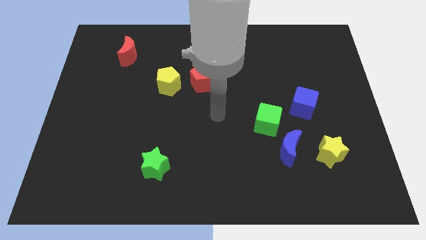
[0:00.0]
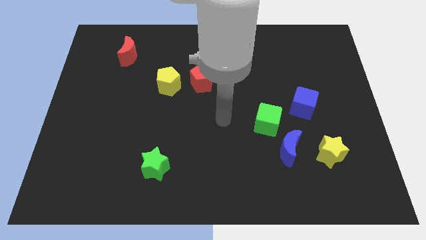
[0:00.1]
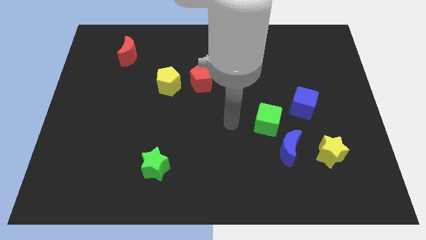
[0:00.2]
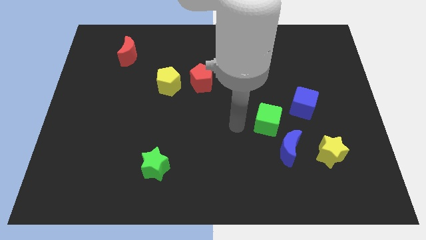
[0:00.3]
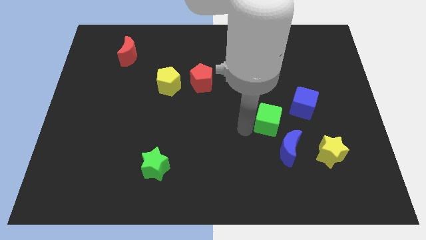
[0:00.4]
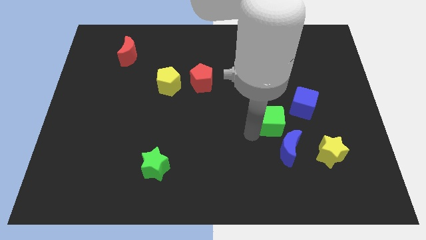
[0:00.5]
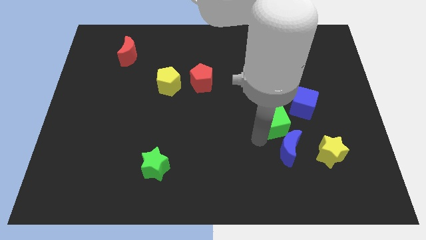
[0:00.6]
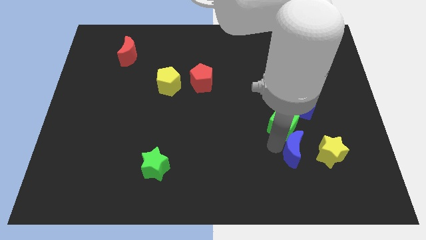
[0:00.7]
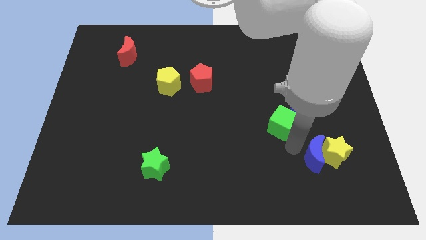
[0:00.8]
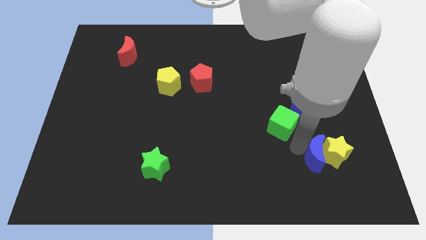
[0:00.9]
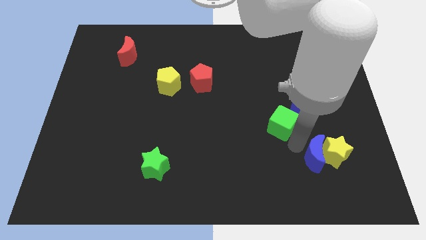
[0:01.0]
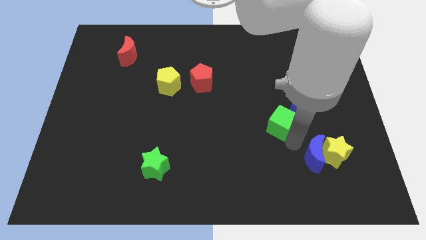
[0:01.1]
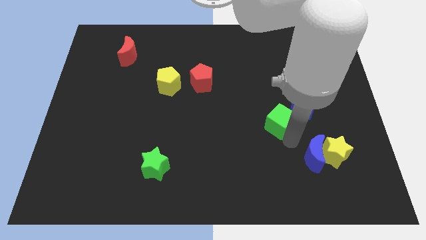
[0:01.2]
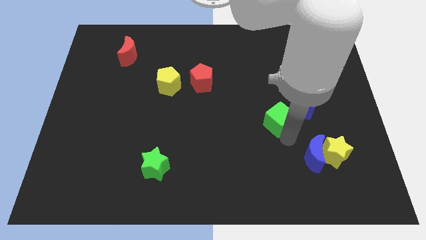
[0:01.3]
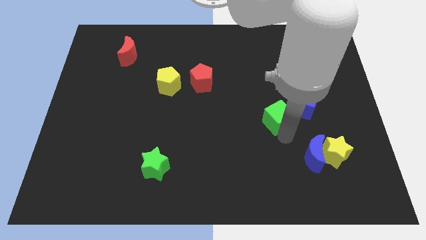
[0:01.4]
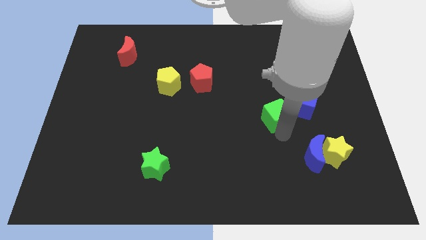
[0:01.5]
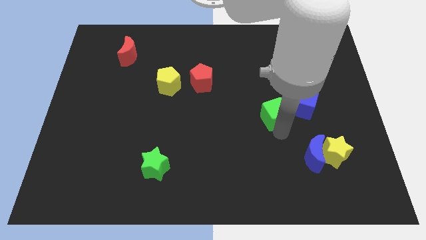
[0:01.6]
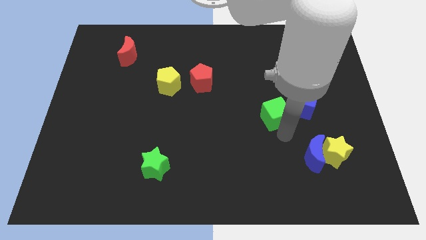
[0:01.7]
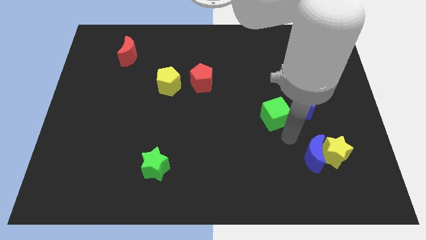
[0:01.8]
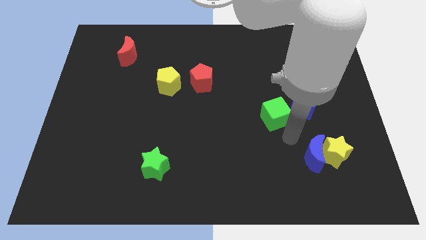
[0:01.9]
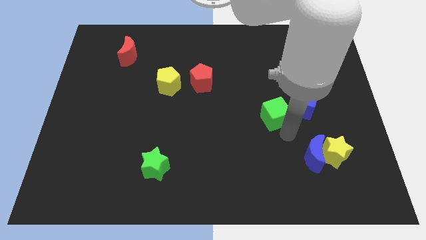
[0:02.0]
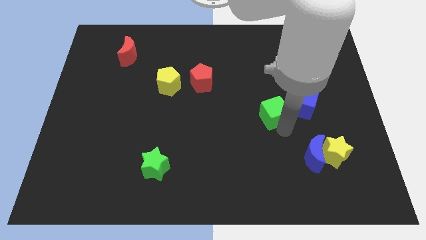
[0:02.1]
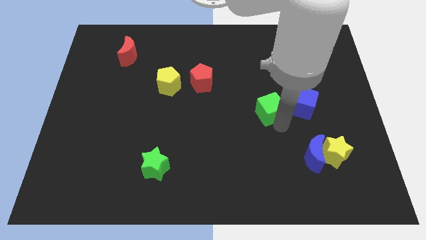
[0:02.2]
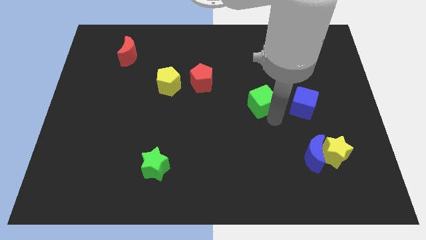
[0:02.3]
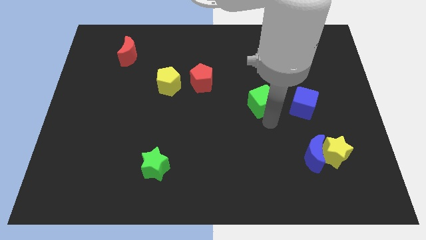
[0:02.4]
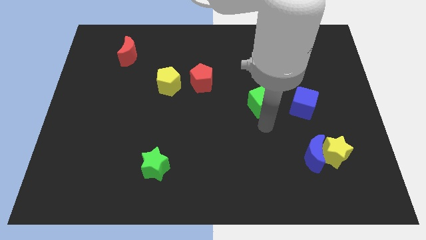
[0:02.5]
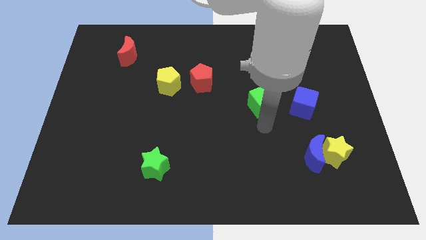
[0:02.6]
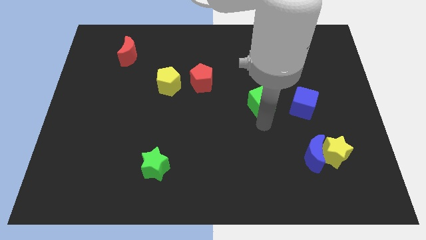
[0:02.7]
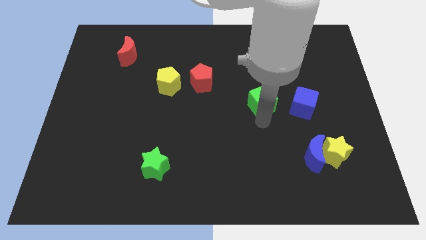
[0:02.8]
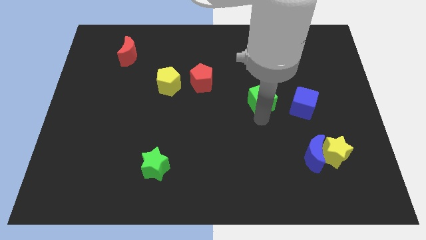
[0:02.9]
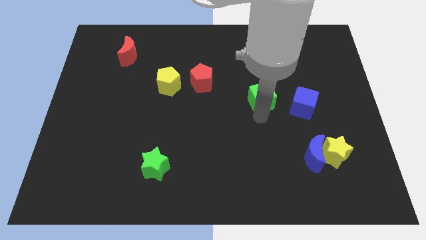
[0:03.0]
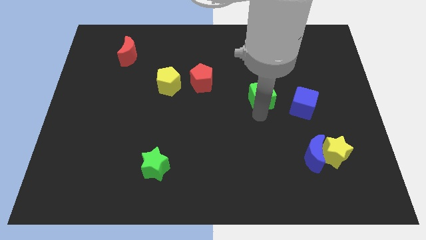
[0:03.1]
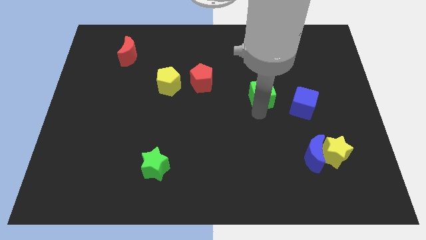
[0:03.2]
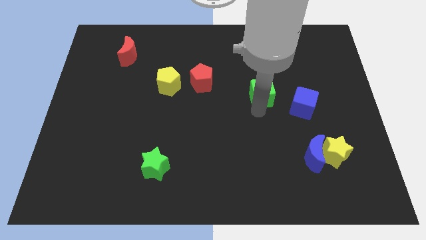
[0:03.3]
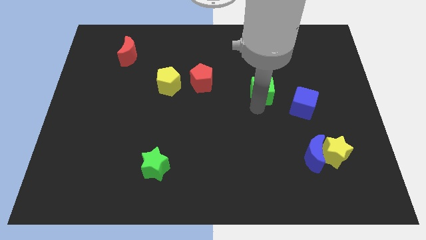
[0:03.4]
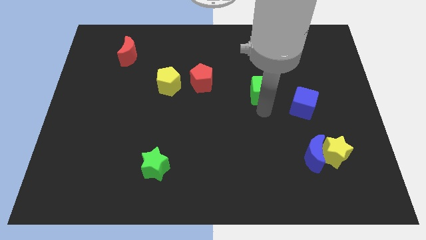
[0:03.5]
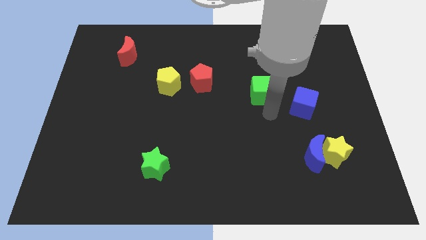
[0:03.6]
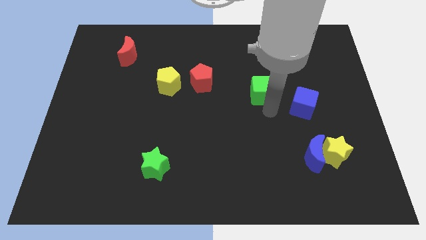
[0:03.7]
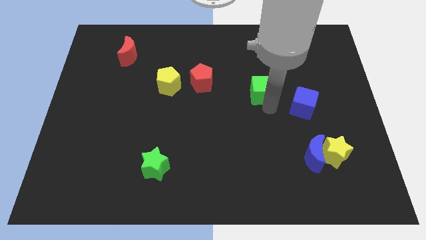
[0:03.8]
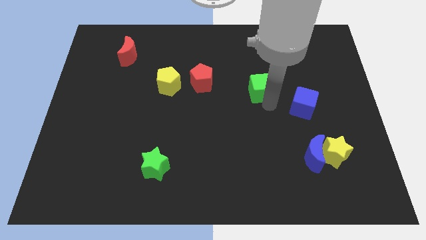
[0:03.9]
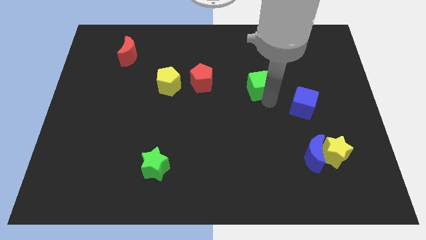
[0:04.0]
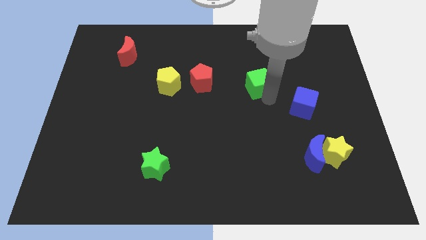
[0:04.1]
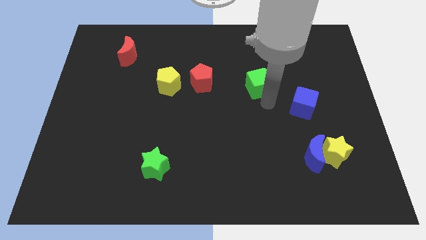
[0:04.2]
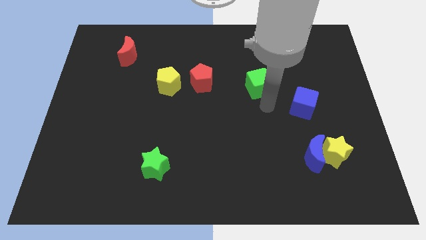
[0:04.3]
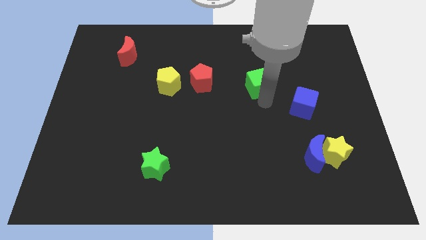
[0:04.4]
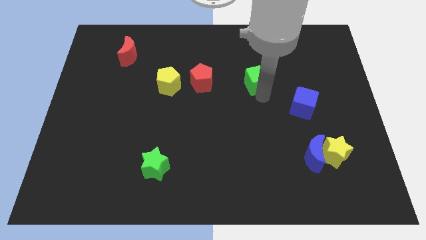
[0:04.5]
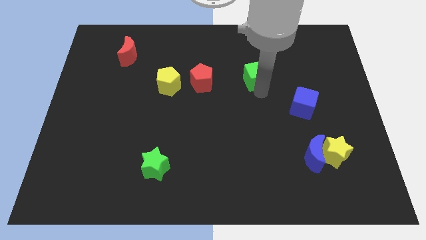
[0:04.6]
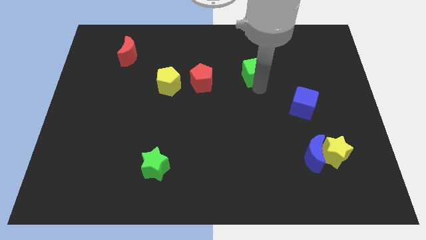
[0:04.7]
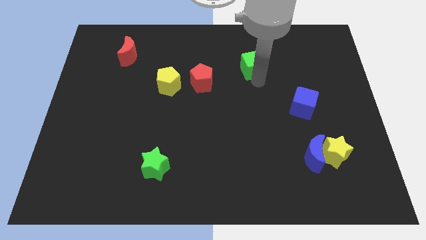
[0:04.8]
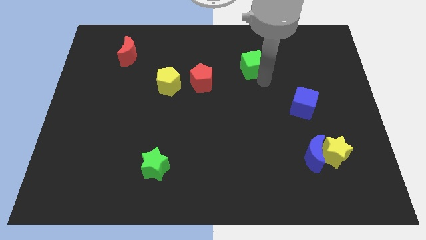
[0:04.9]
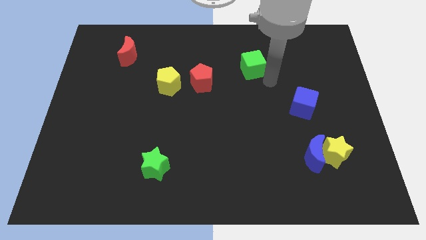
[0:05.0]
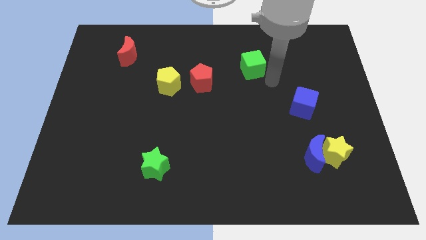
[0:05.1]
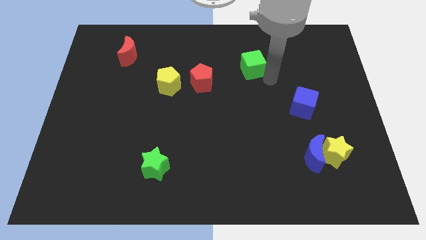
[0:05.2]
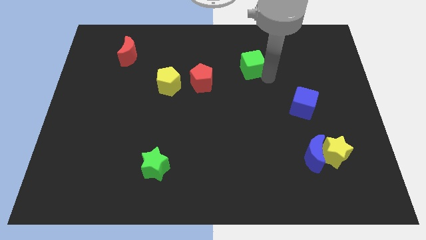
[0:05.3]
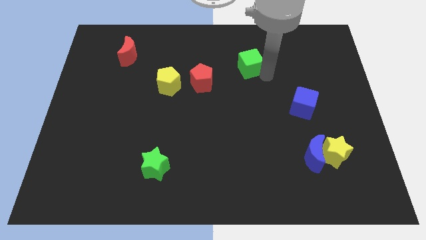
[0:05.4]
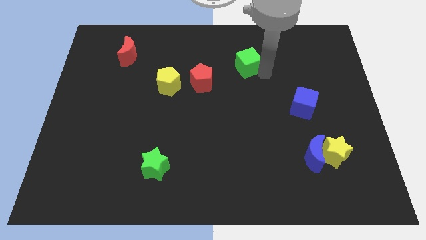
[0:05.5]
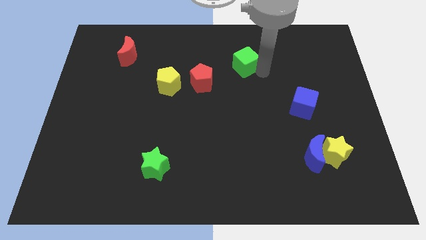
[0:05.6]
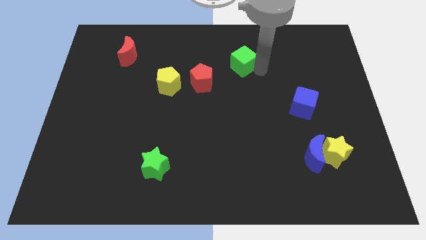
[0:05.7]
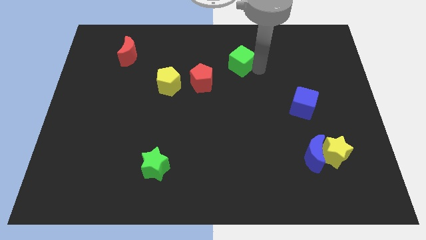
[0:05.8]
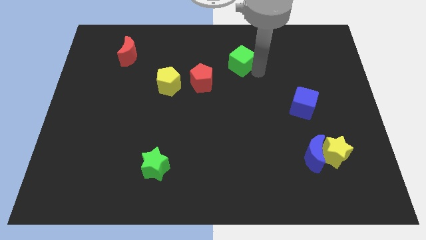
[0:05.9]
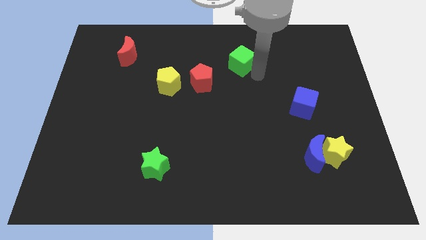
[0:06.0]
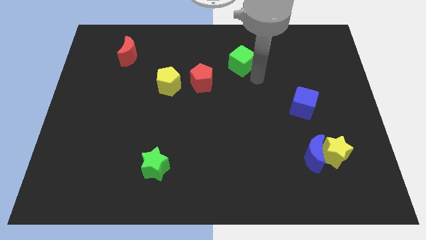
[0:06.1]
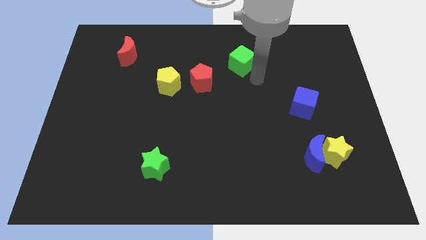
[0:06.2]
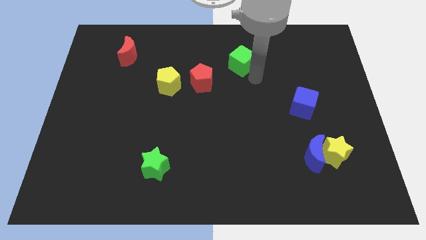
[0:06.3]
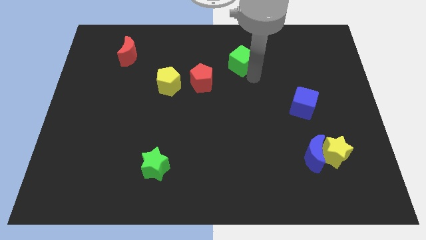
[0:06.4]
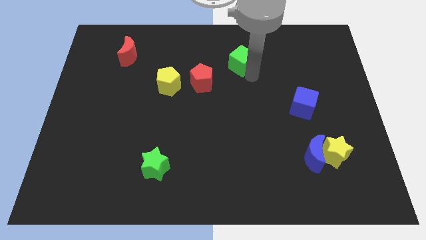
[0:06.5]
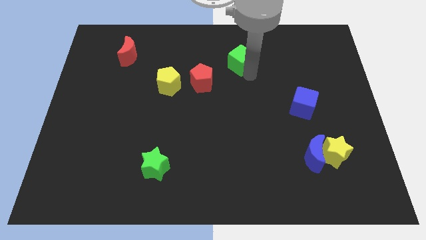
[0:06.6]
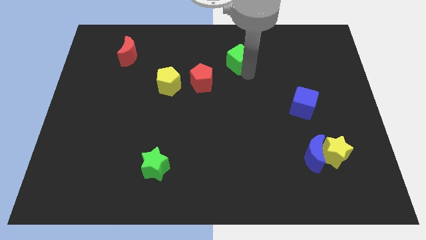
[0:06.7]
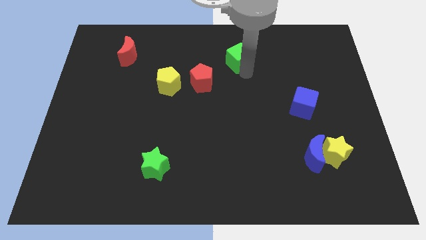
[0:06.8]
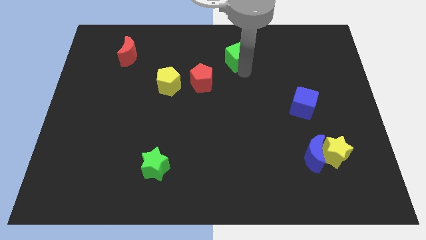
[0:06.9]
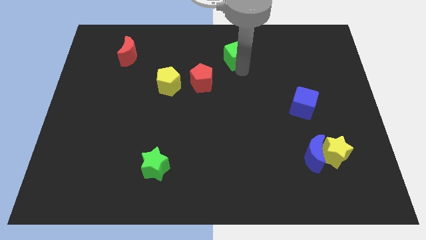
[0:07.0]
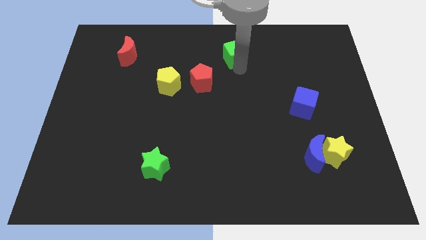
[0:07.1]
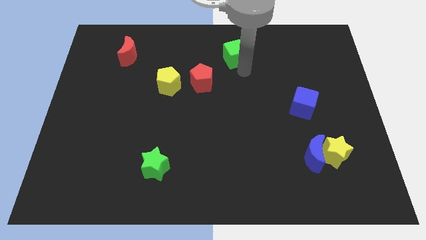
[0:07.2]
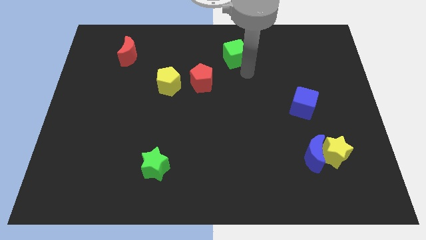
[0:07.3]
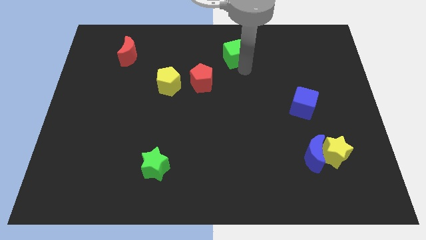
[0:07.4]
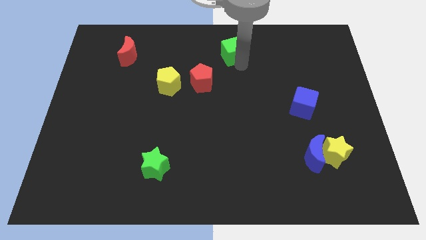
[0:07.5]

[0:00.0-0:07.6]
put the green cube to the towards your base

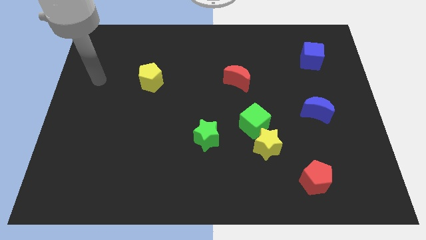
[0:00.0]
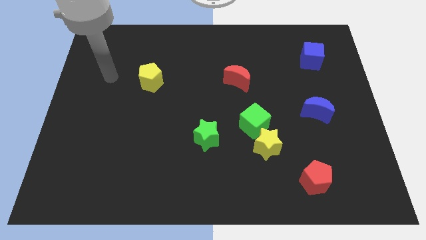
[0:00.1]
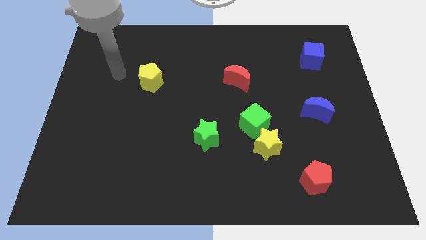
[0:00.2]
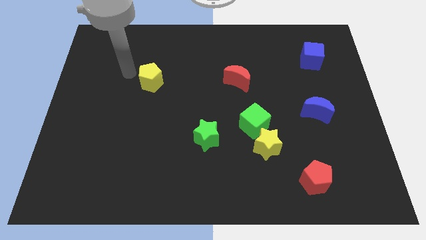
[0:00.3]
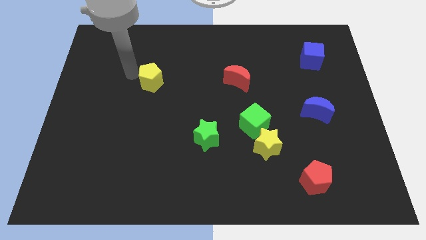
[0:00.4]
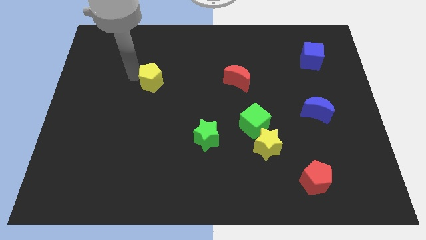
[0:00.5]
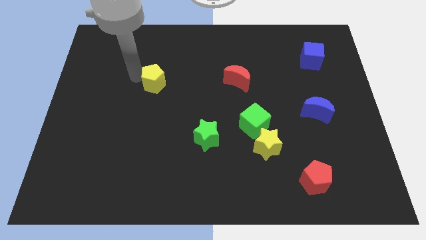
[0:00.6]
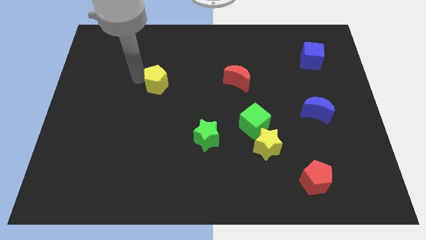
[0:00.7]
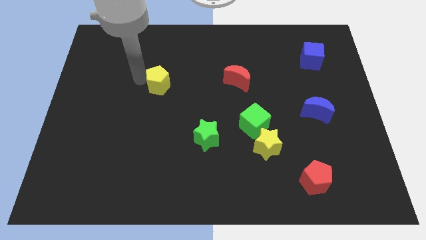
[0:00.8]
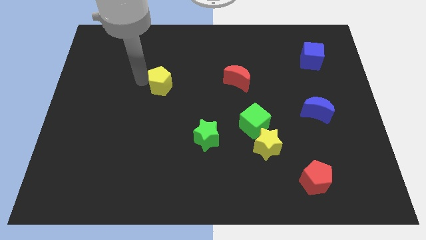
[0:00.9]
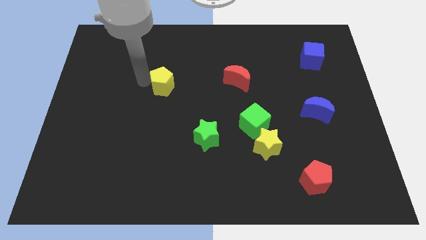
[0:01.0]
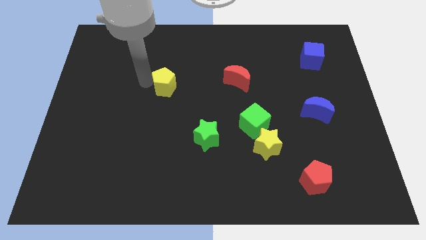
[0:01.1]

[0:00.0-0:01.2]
push the yellow pentagon to the center of the board
